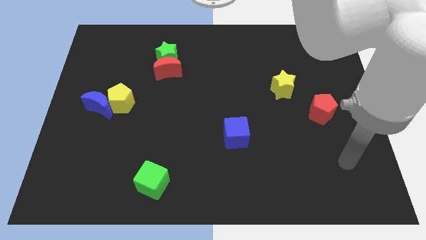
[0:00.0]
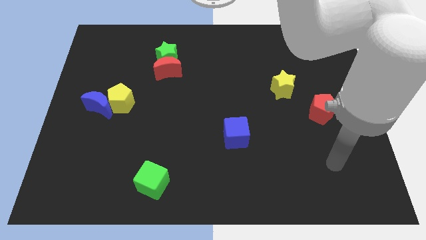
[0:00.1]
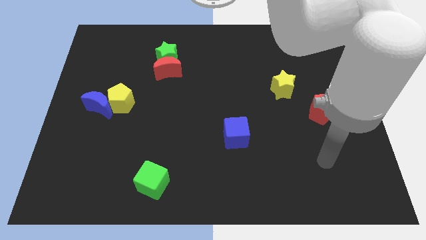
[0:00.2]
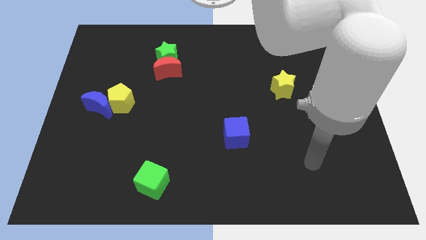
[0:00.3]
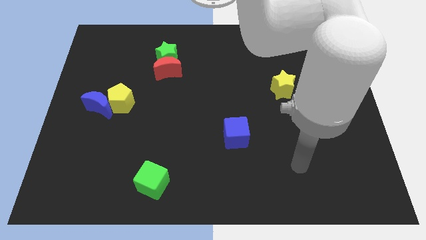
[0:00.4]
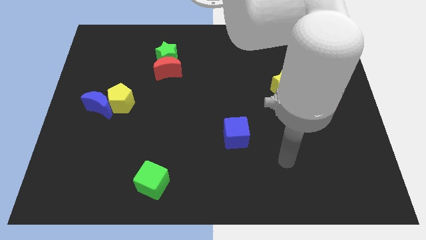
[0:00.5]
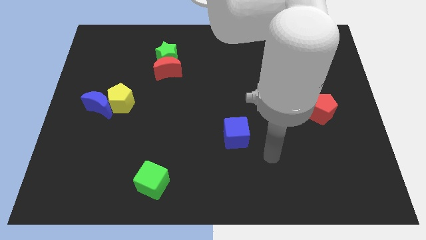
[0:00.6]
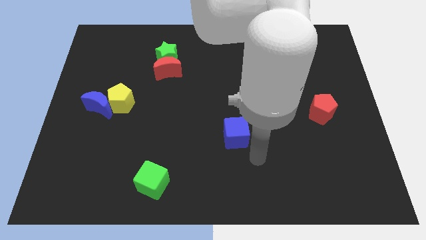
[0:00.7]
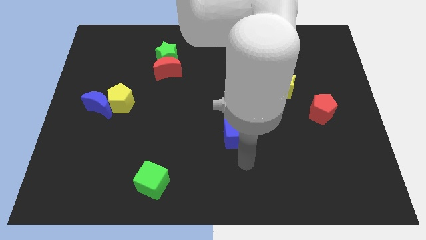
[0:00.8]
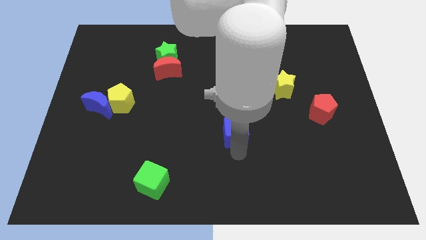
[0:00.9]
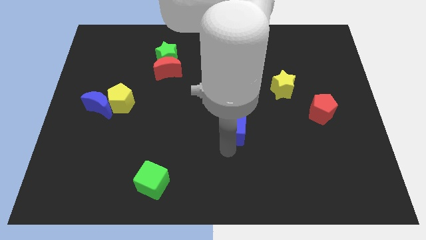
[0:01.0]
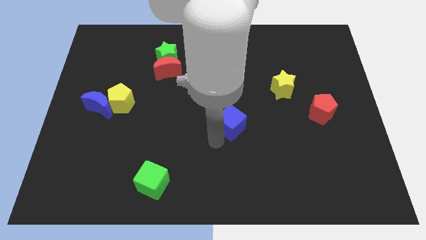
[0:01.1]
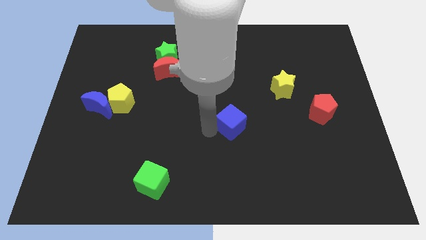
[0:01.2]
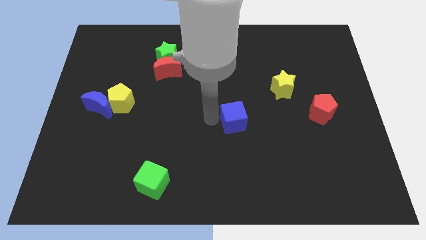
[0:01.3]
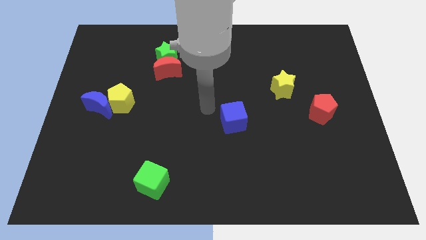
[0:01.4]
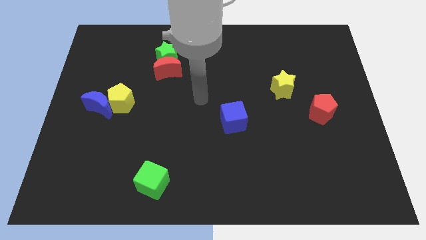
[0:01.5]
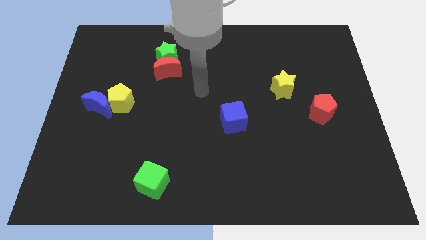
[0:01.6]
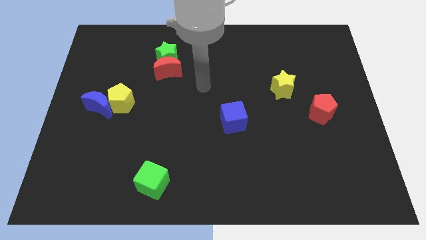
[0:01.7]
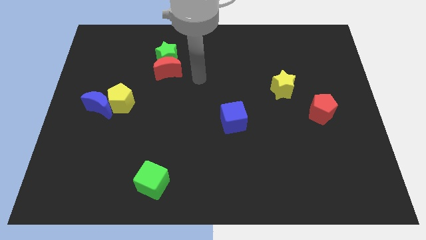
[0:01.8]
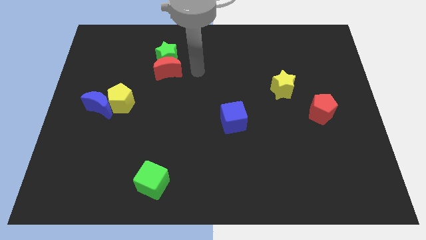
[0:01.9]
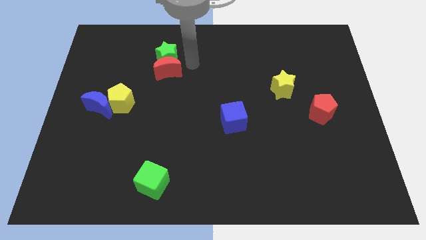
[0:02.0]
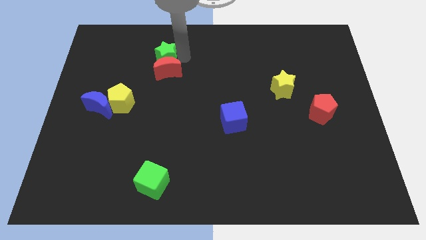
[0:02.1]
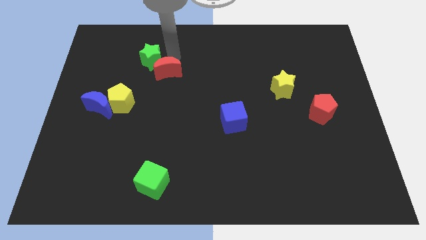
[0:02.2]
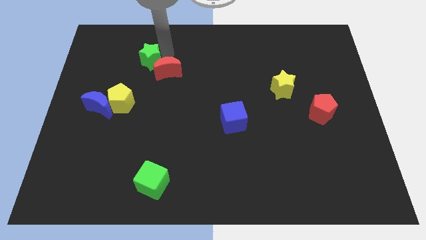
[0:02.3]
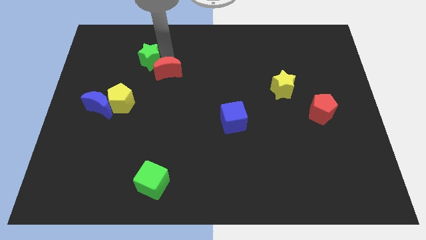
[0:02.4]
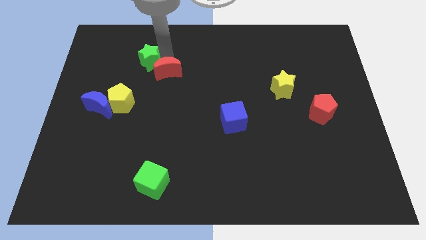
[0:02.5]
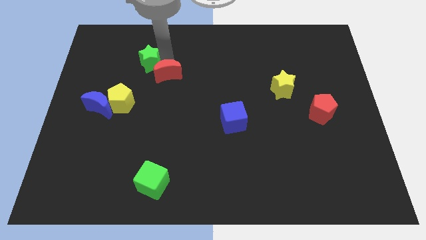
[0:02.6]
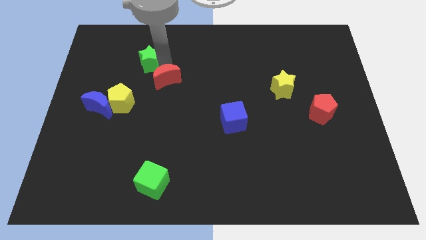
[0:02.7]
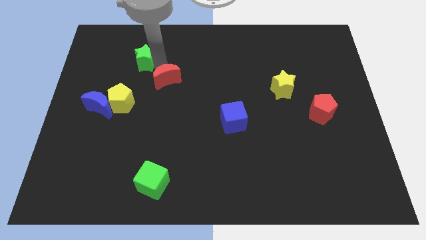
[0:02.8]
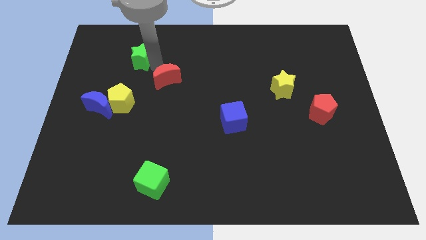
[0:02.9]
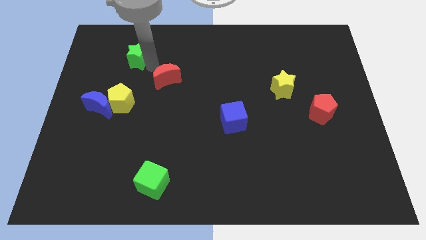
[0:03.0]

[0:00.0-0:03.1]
move the red moon away from the green star

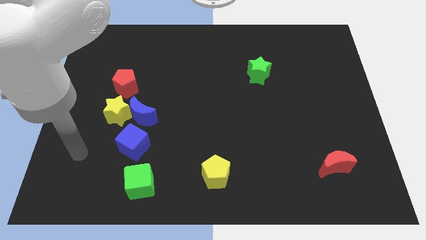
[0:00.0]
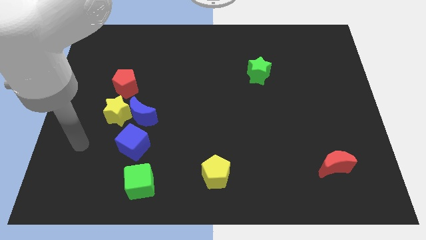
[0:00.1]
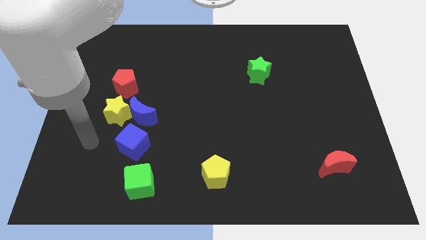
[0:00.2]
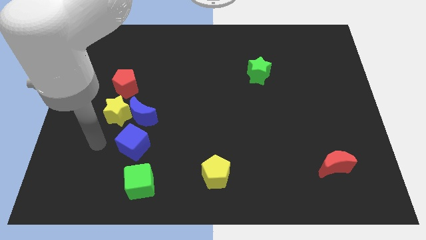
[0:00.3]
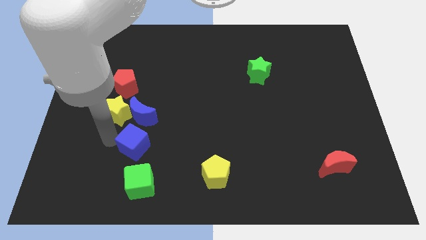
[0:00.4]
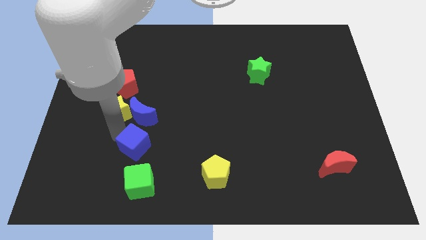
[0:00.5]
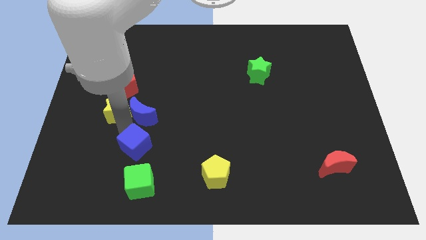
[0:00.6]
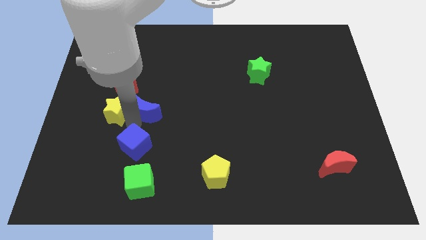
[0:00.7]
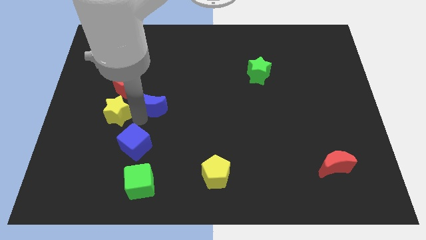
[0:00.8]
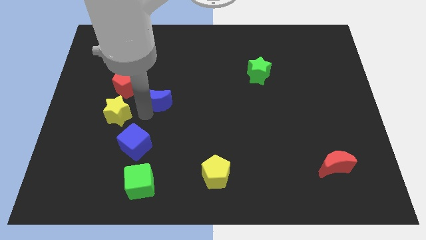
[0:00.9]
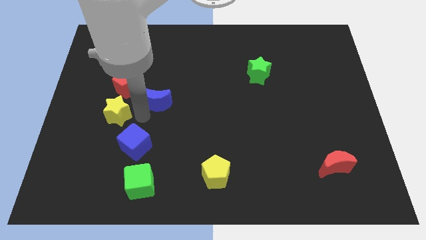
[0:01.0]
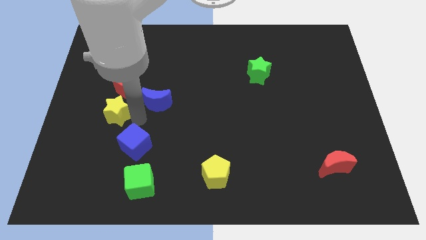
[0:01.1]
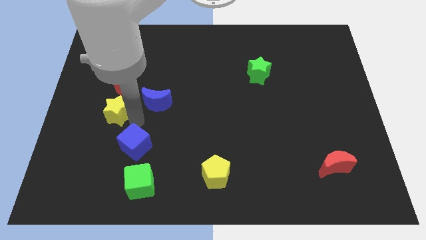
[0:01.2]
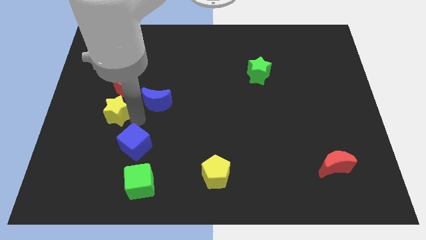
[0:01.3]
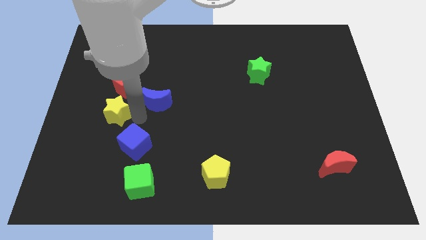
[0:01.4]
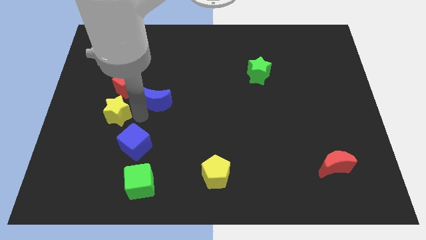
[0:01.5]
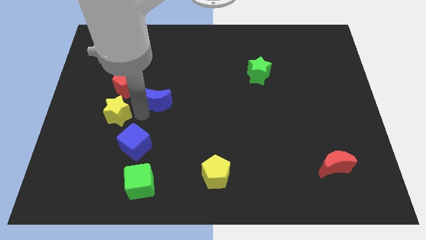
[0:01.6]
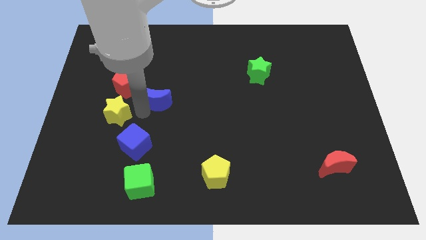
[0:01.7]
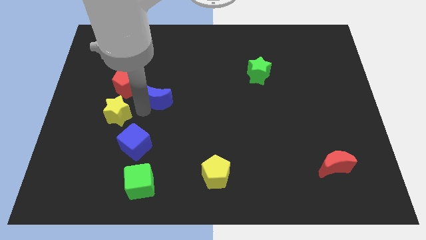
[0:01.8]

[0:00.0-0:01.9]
separate the blue moon from the yellow star and blue cube

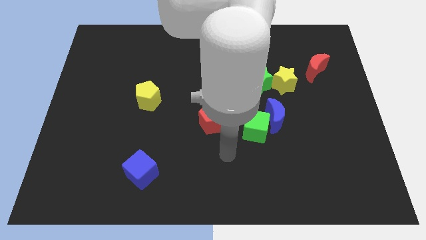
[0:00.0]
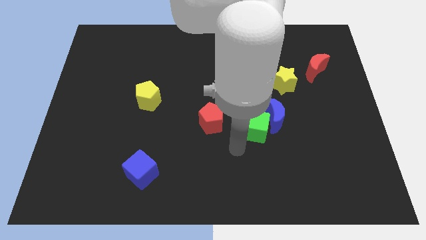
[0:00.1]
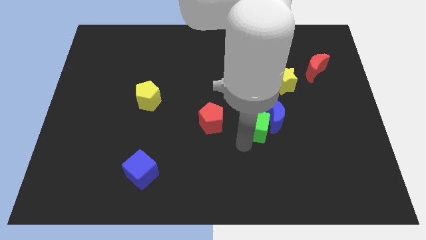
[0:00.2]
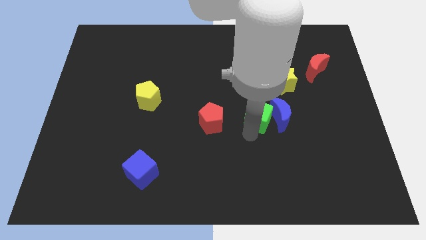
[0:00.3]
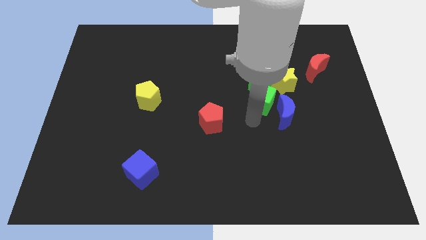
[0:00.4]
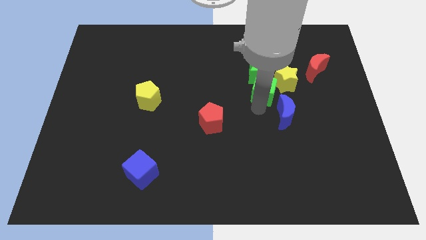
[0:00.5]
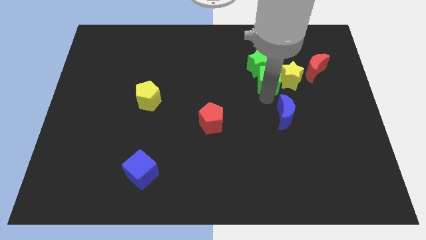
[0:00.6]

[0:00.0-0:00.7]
separate the blue moon from the green cube

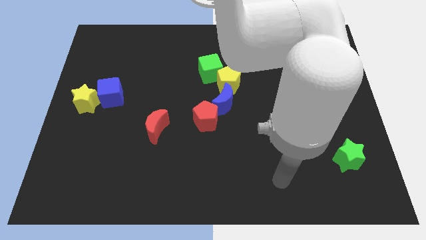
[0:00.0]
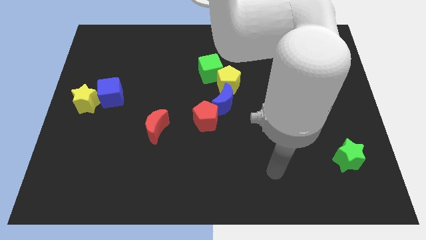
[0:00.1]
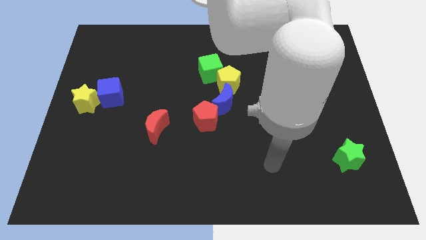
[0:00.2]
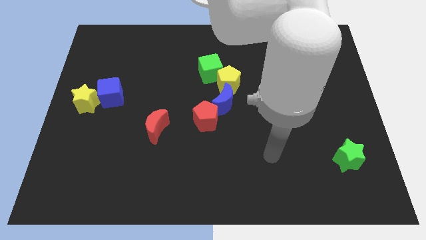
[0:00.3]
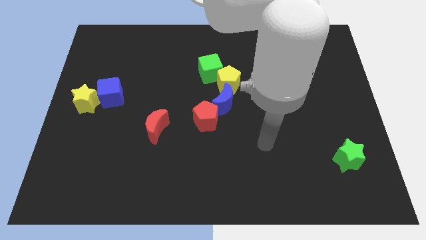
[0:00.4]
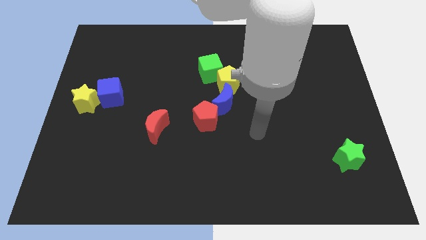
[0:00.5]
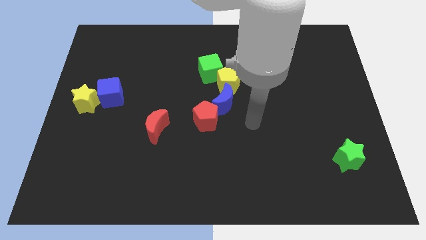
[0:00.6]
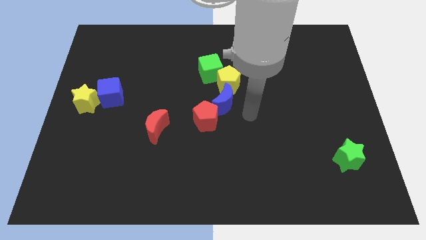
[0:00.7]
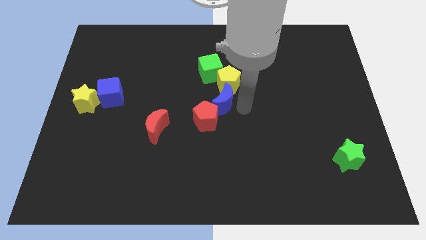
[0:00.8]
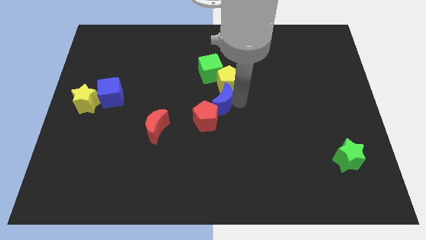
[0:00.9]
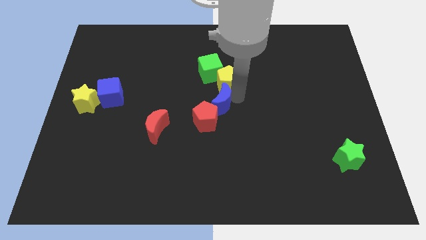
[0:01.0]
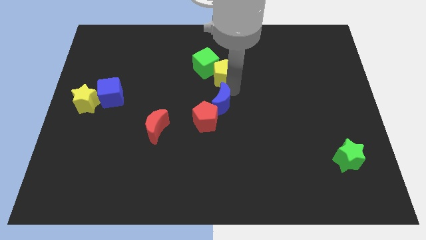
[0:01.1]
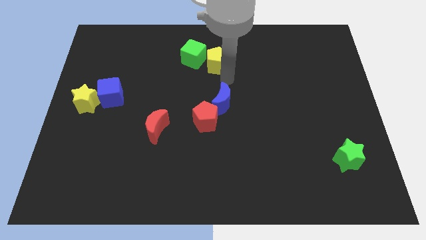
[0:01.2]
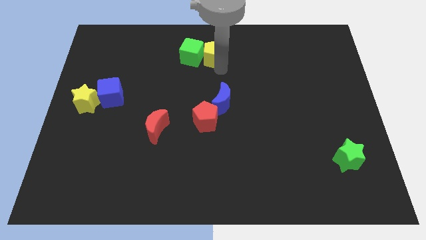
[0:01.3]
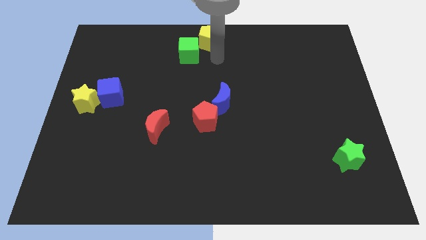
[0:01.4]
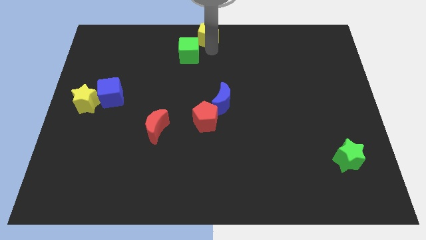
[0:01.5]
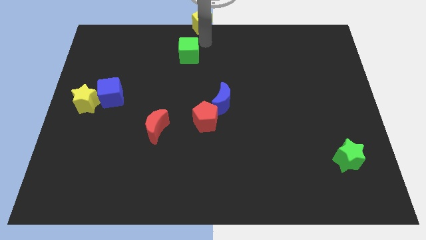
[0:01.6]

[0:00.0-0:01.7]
pull the green cube apart from the yellow pentagon

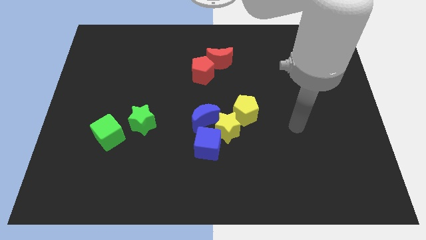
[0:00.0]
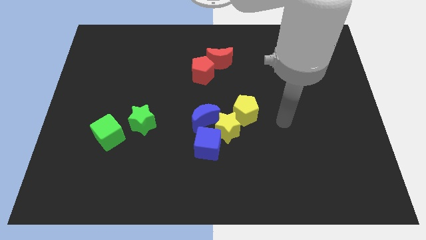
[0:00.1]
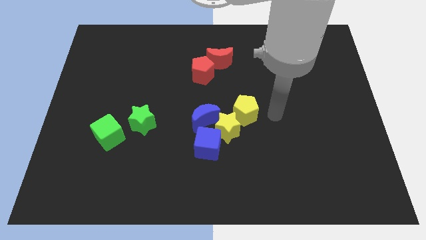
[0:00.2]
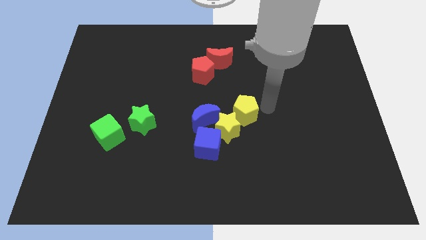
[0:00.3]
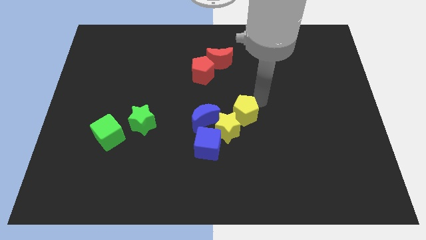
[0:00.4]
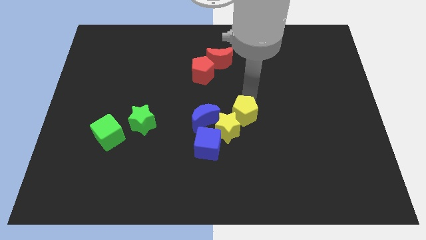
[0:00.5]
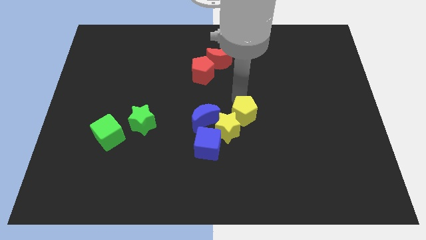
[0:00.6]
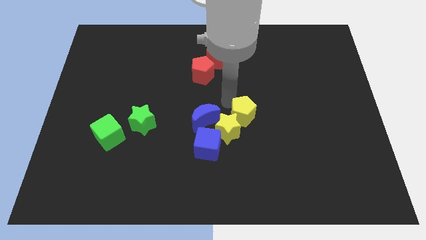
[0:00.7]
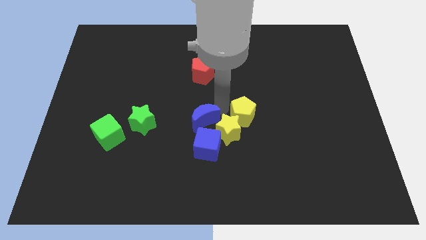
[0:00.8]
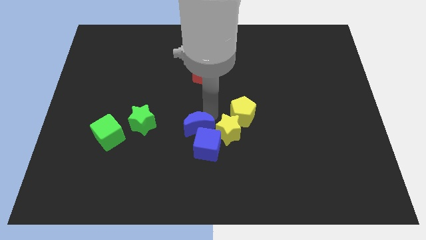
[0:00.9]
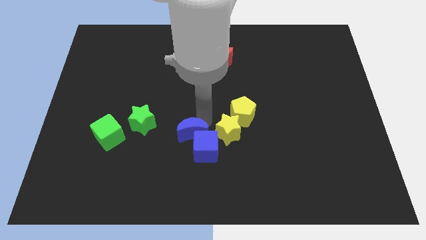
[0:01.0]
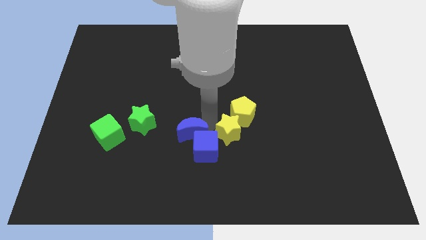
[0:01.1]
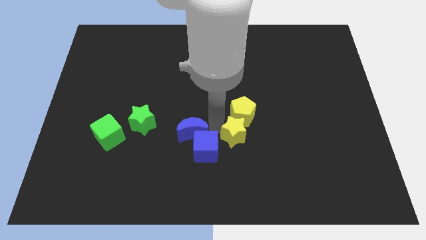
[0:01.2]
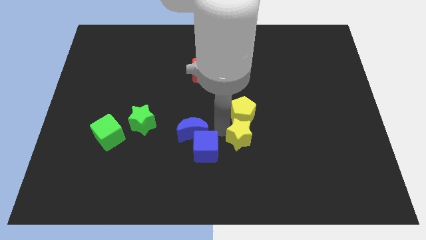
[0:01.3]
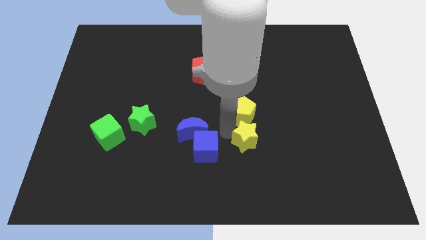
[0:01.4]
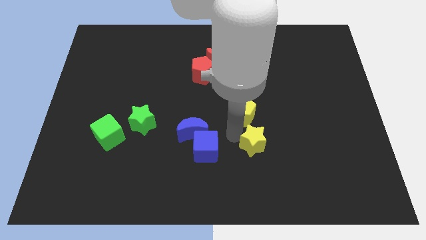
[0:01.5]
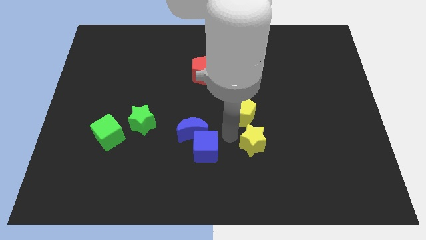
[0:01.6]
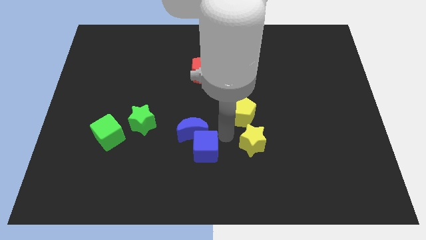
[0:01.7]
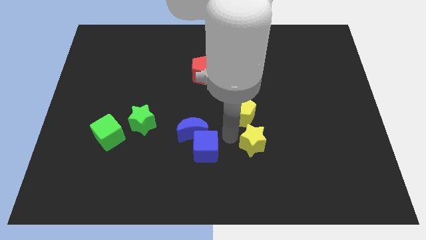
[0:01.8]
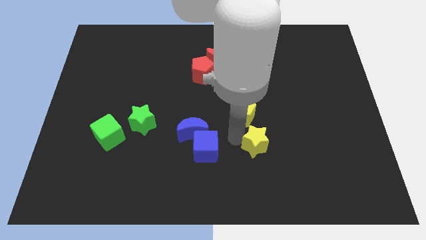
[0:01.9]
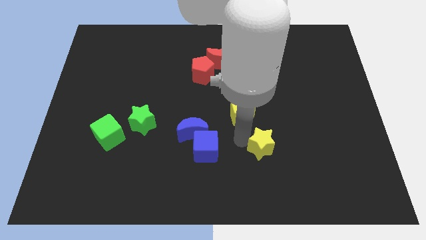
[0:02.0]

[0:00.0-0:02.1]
pull the yellow star apart from the group
